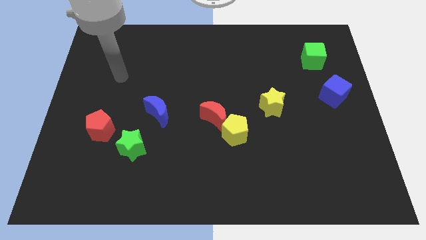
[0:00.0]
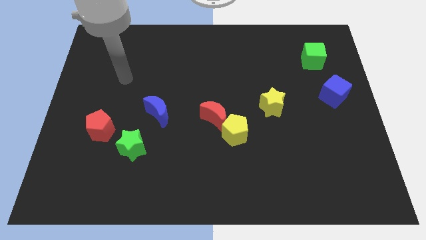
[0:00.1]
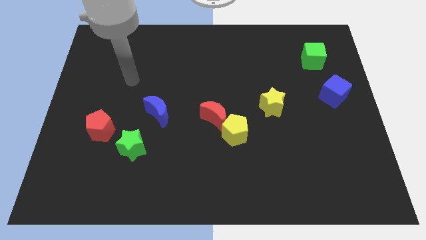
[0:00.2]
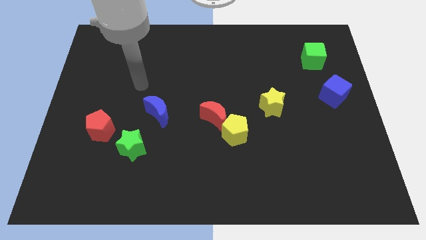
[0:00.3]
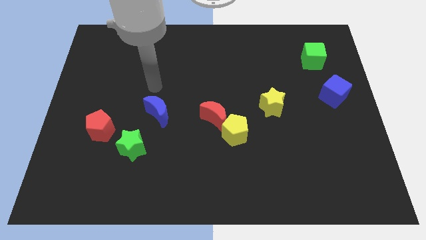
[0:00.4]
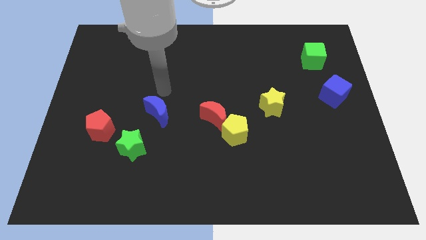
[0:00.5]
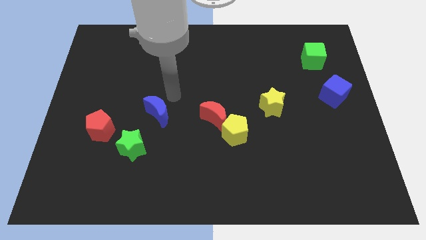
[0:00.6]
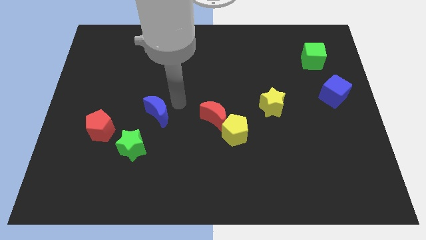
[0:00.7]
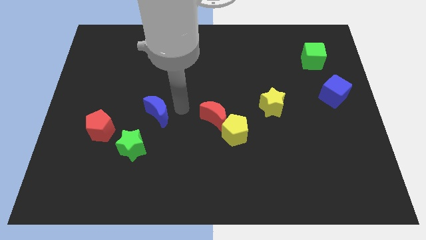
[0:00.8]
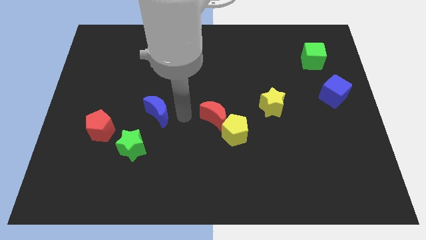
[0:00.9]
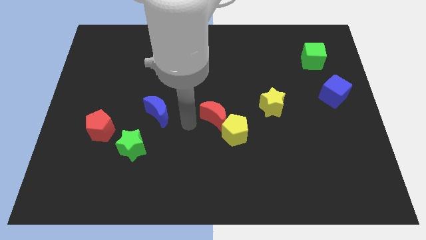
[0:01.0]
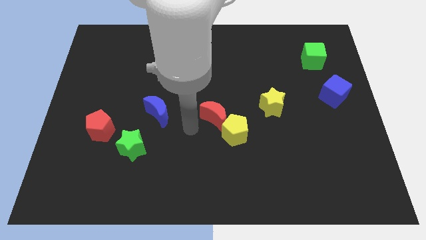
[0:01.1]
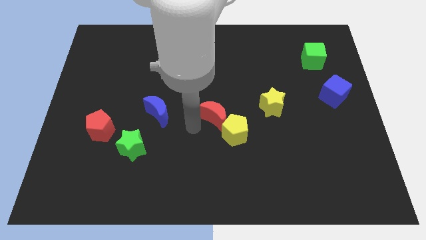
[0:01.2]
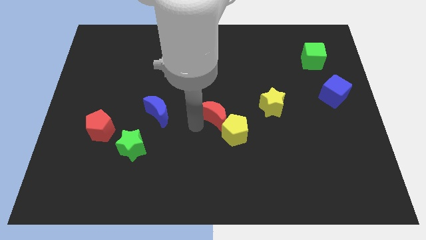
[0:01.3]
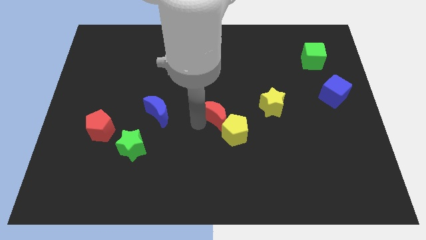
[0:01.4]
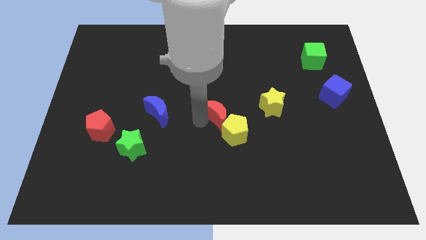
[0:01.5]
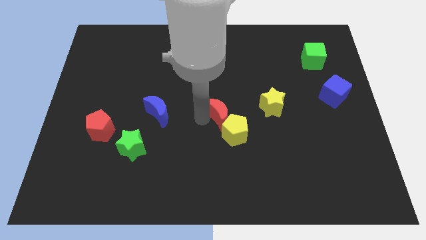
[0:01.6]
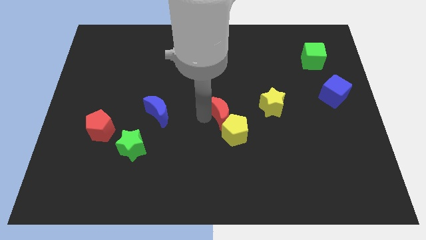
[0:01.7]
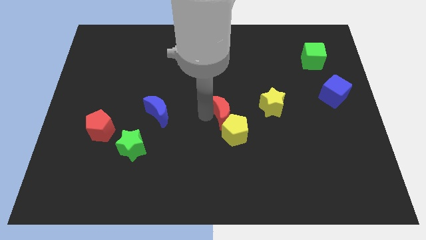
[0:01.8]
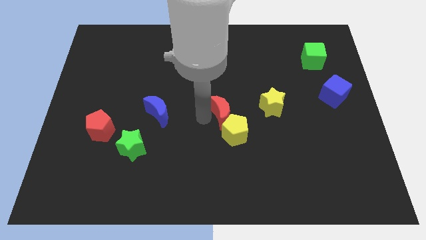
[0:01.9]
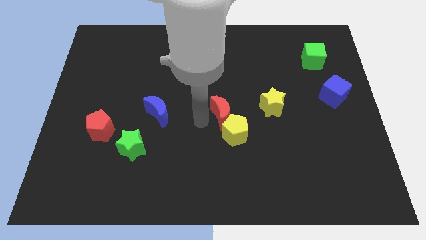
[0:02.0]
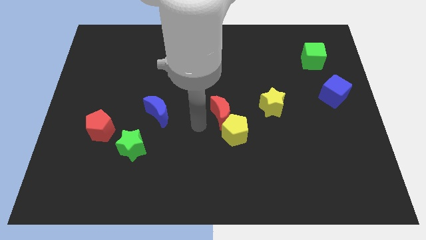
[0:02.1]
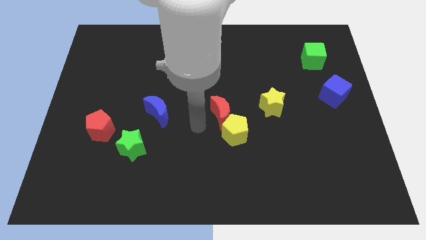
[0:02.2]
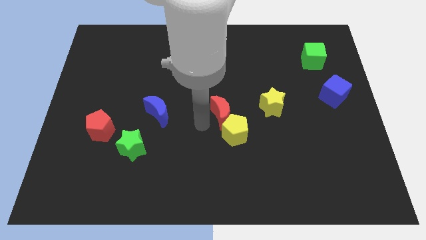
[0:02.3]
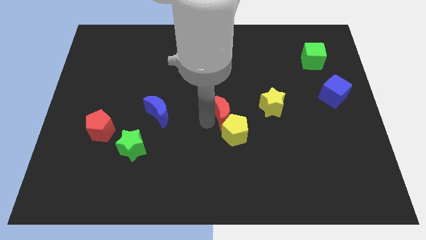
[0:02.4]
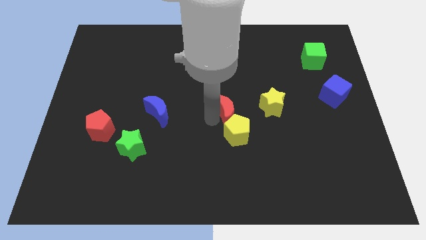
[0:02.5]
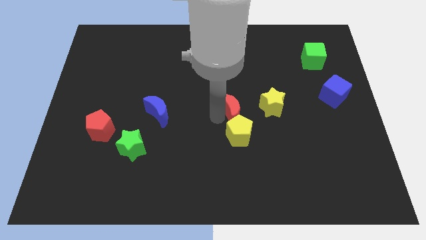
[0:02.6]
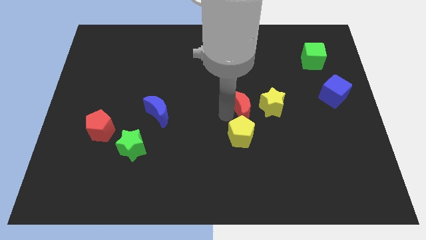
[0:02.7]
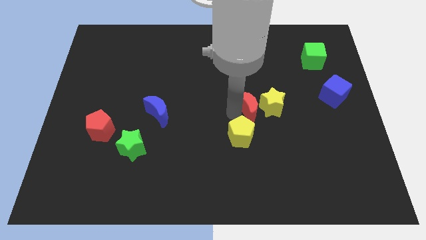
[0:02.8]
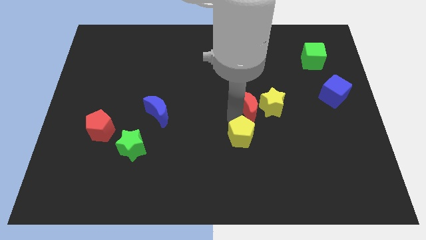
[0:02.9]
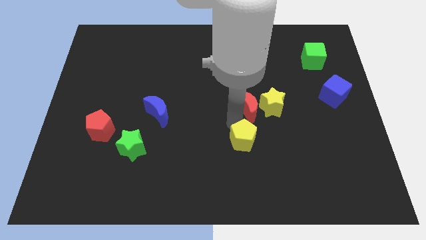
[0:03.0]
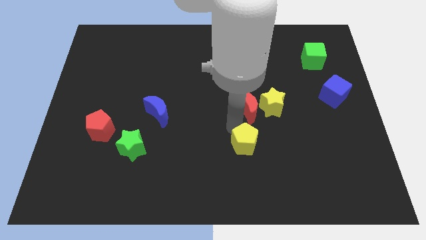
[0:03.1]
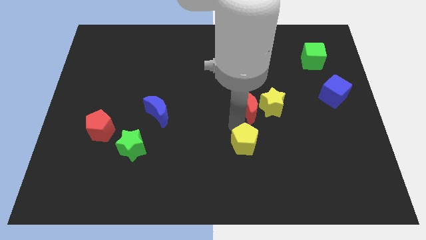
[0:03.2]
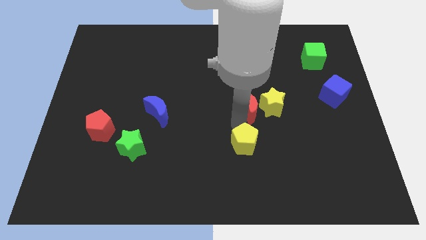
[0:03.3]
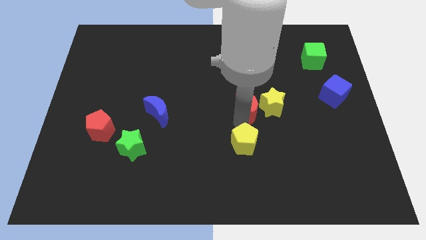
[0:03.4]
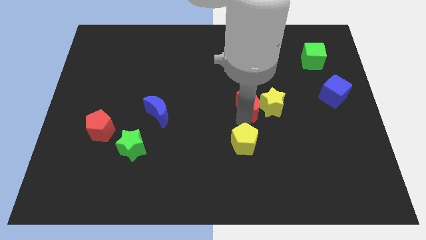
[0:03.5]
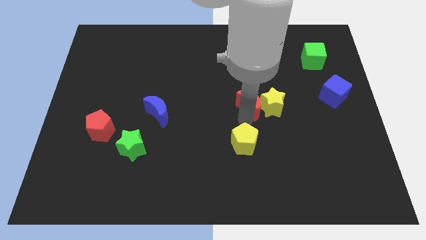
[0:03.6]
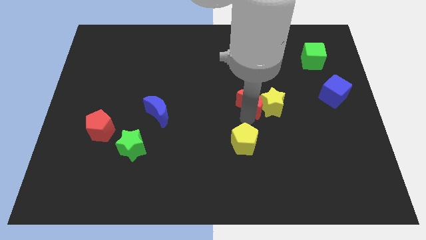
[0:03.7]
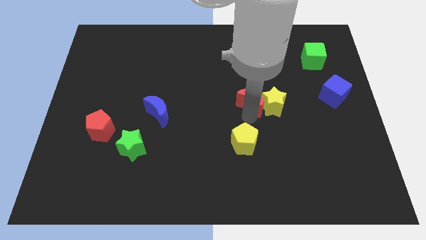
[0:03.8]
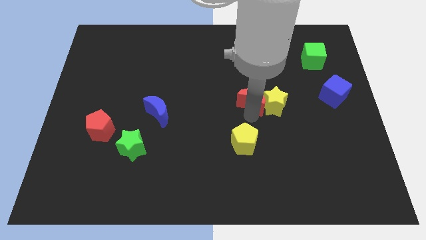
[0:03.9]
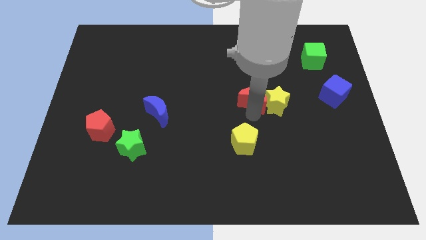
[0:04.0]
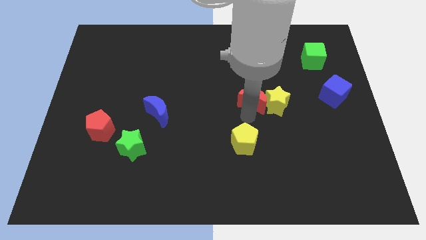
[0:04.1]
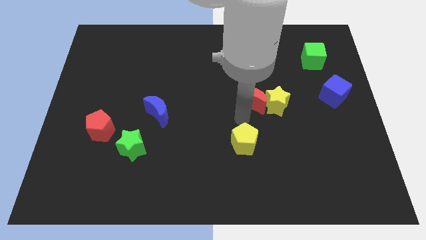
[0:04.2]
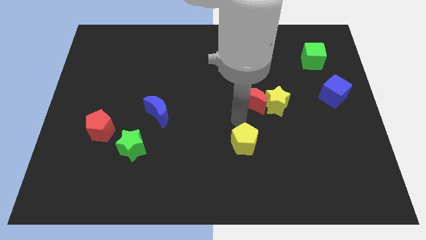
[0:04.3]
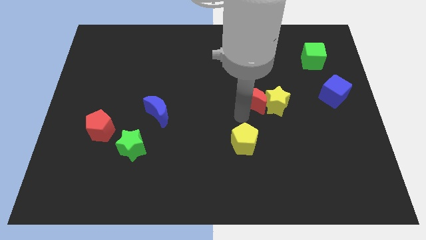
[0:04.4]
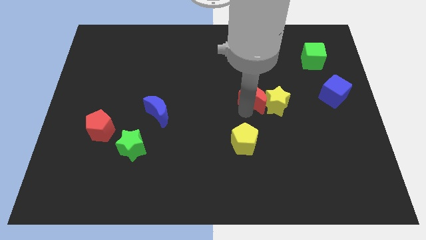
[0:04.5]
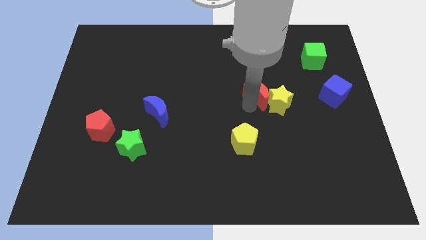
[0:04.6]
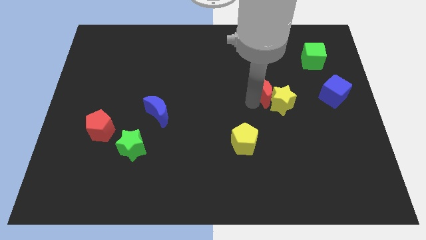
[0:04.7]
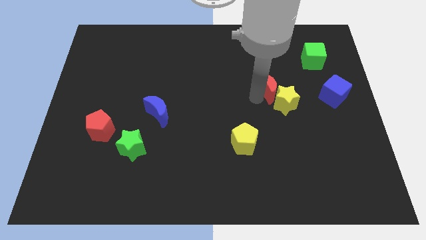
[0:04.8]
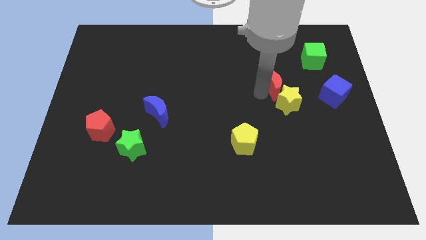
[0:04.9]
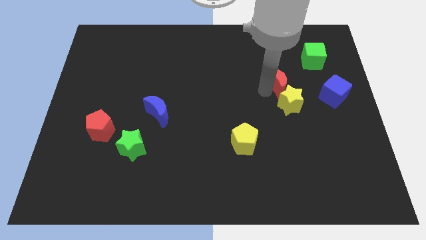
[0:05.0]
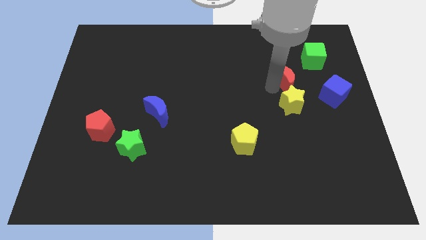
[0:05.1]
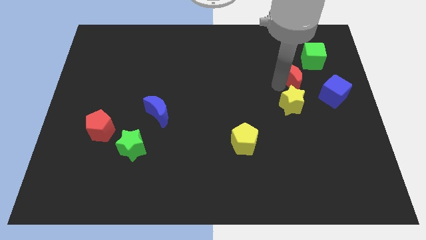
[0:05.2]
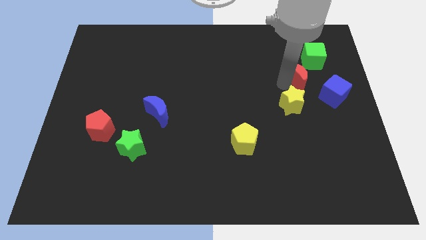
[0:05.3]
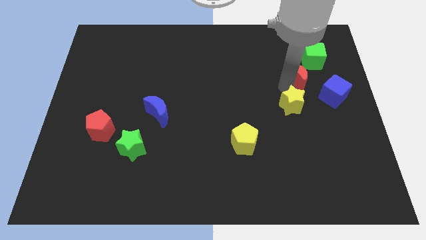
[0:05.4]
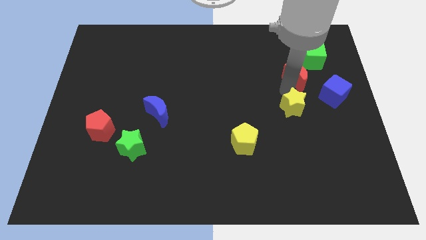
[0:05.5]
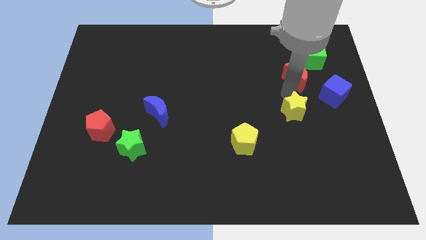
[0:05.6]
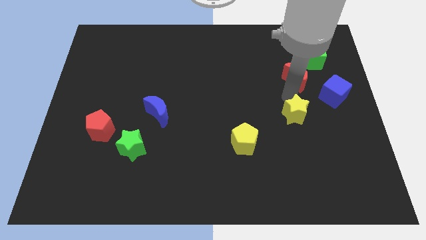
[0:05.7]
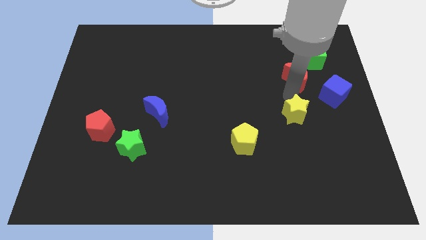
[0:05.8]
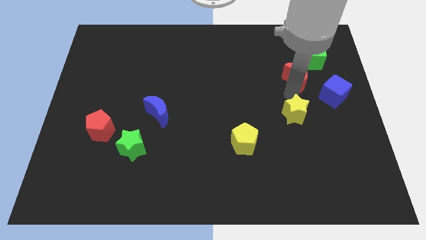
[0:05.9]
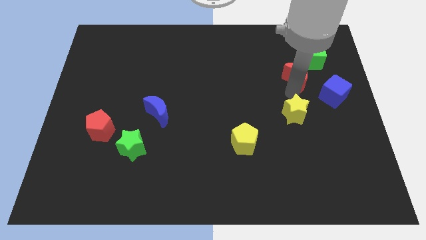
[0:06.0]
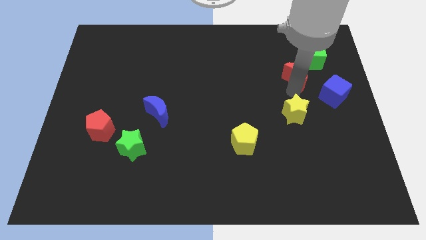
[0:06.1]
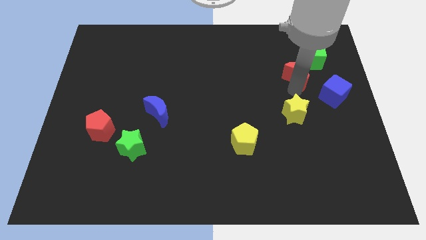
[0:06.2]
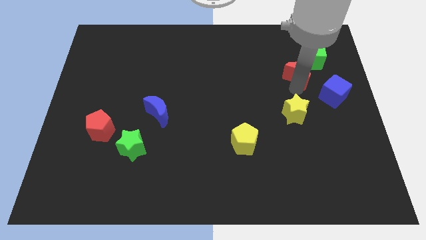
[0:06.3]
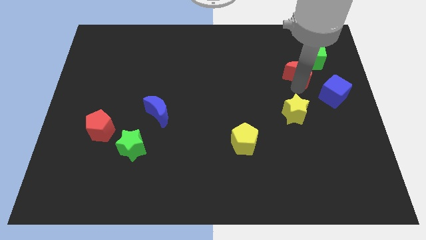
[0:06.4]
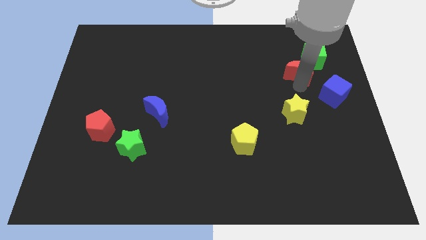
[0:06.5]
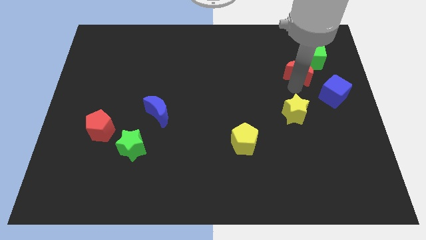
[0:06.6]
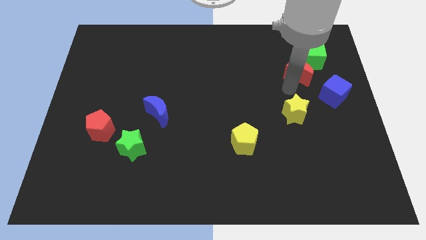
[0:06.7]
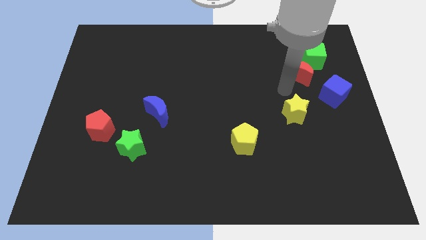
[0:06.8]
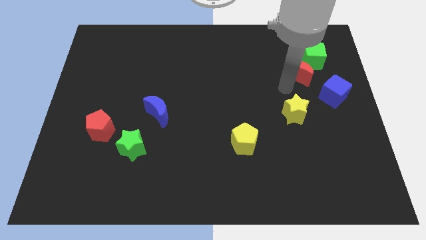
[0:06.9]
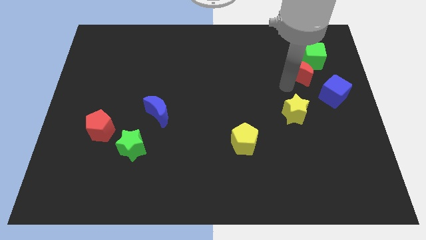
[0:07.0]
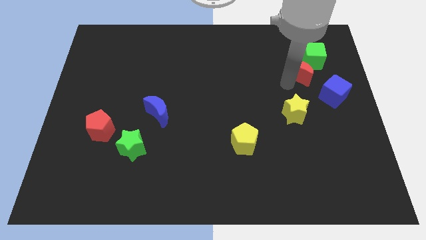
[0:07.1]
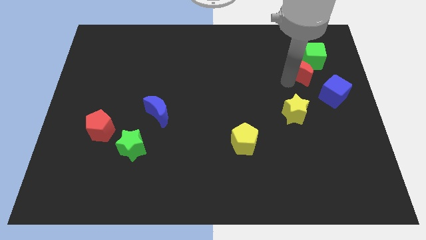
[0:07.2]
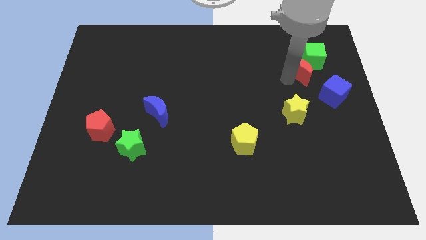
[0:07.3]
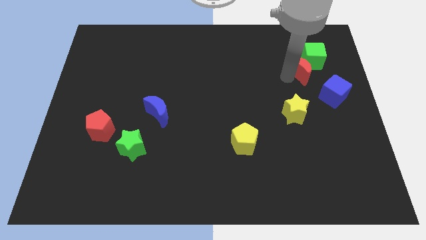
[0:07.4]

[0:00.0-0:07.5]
push the red moon to the green cube

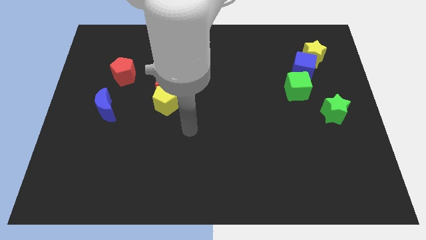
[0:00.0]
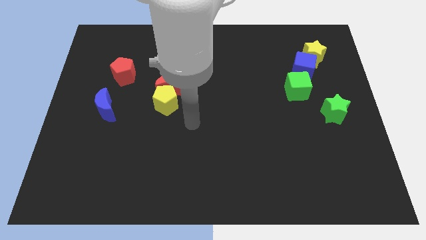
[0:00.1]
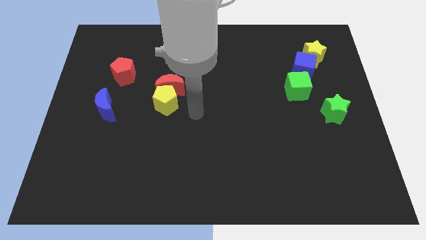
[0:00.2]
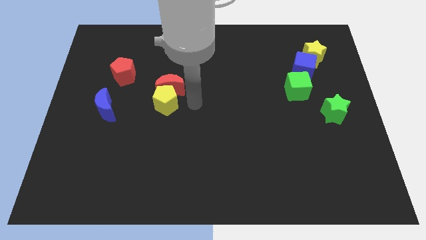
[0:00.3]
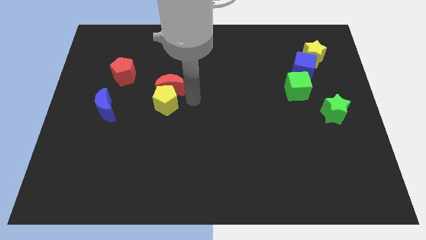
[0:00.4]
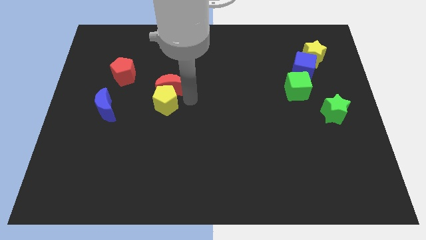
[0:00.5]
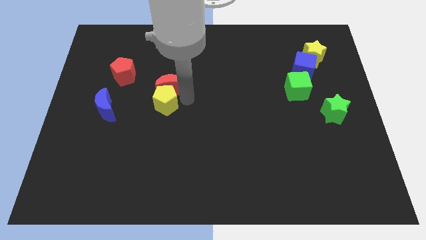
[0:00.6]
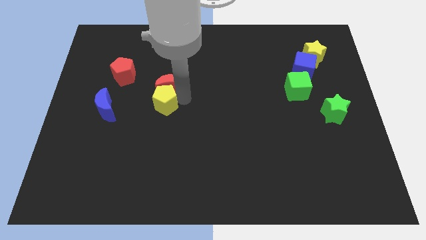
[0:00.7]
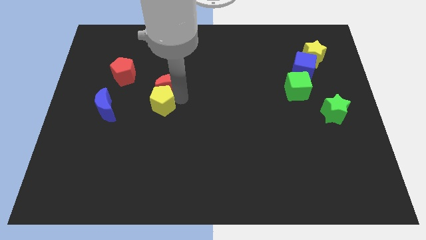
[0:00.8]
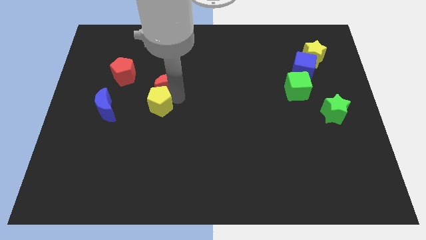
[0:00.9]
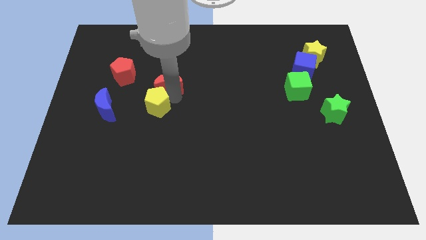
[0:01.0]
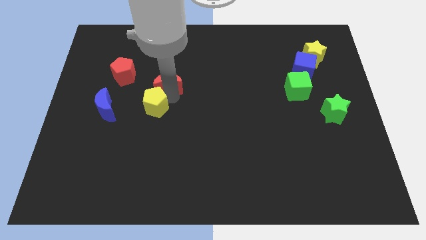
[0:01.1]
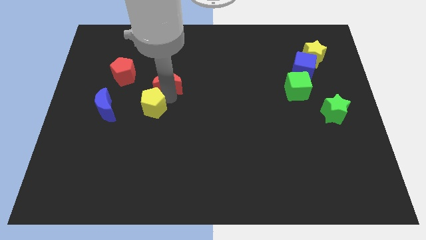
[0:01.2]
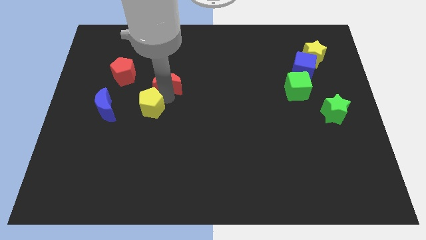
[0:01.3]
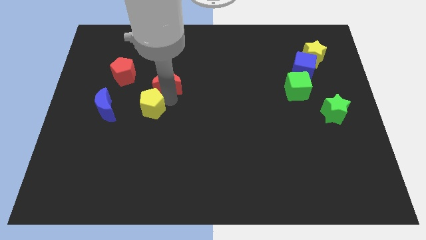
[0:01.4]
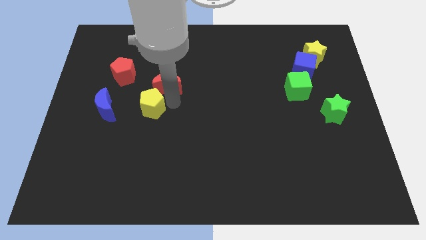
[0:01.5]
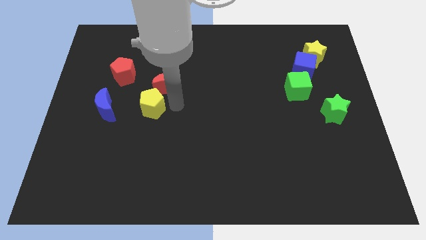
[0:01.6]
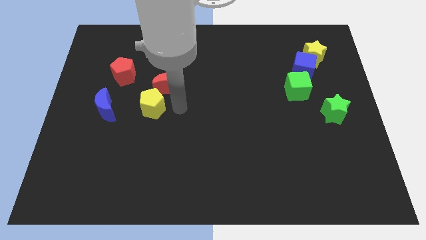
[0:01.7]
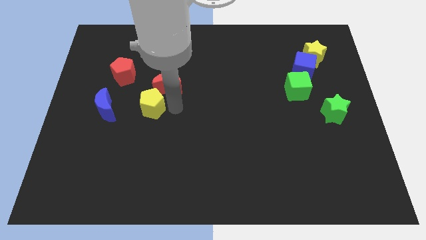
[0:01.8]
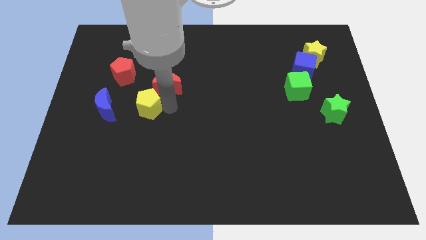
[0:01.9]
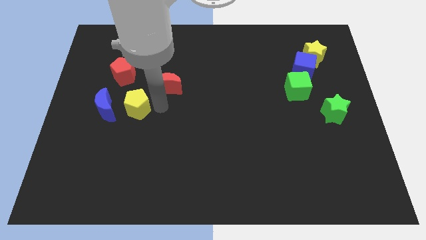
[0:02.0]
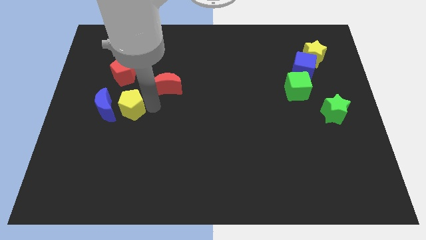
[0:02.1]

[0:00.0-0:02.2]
push the yellow pentagon close to the blue moon
